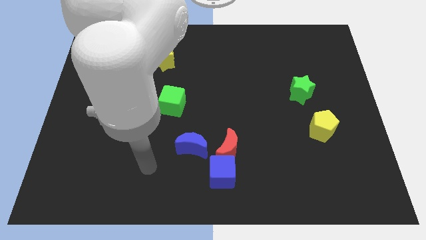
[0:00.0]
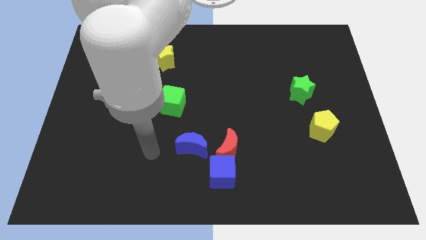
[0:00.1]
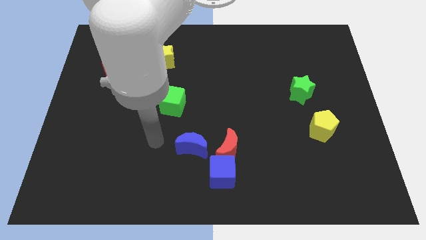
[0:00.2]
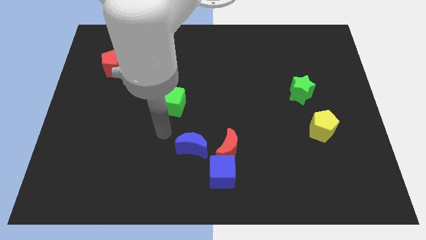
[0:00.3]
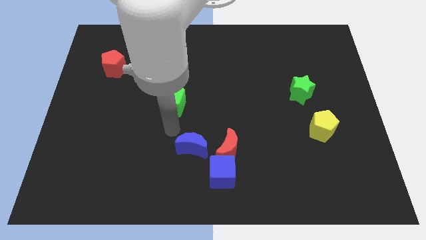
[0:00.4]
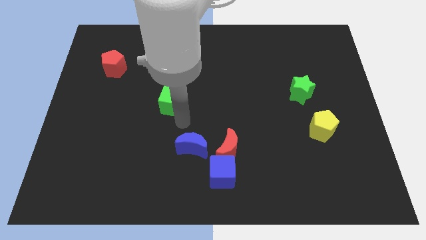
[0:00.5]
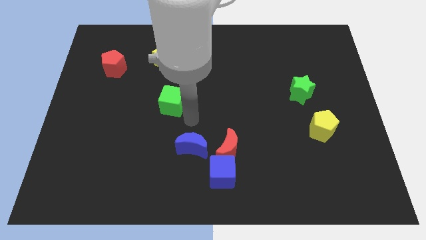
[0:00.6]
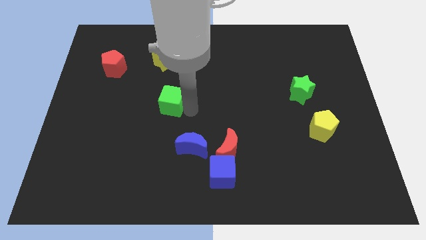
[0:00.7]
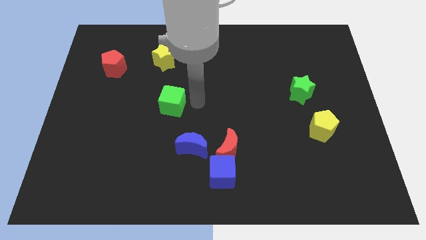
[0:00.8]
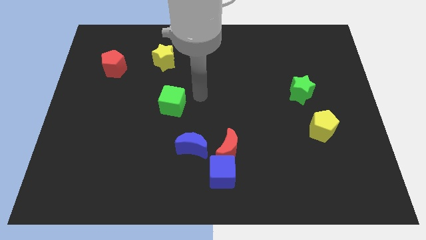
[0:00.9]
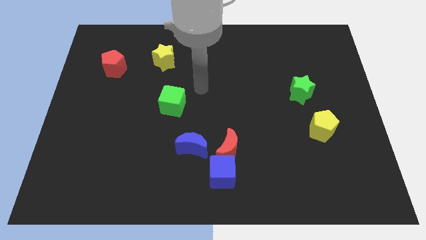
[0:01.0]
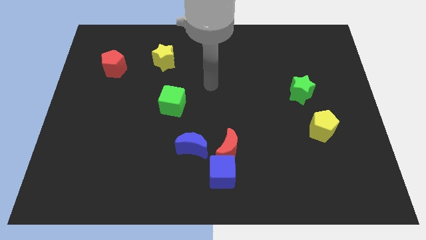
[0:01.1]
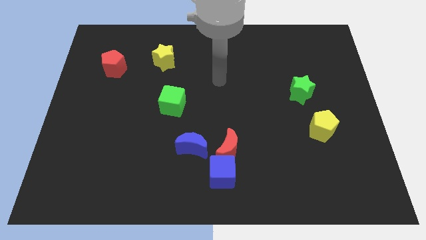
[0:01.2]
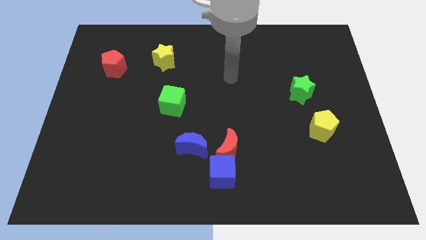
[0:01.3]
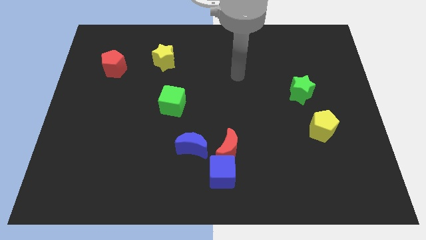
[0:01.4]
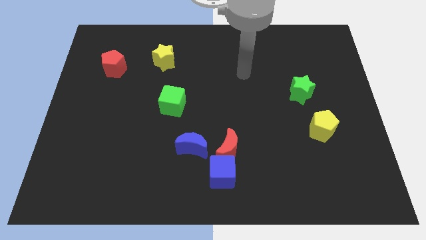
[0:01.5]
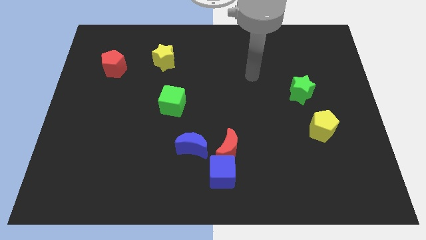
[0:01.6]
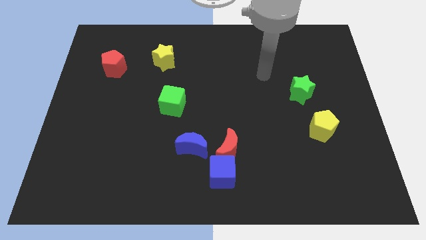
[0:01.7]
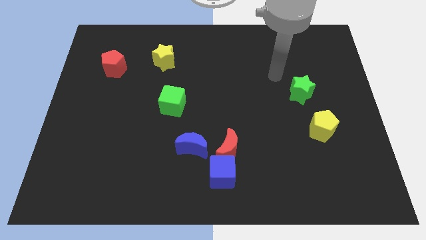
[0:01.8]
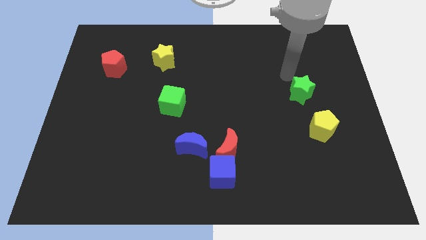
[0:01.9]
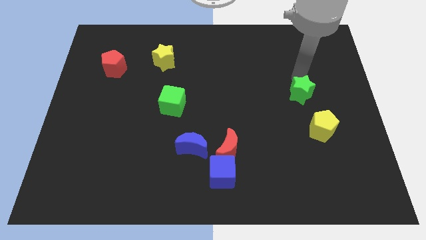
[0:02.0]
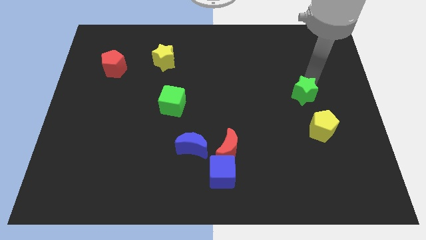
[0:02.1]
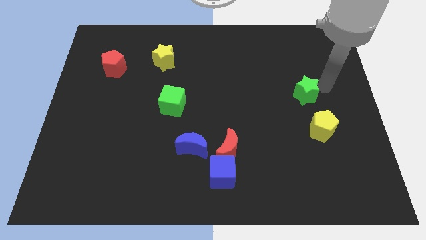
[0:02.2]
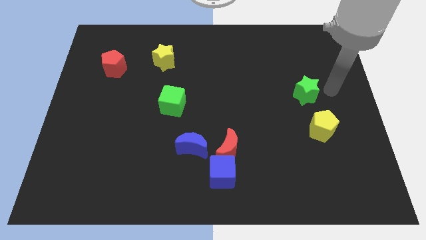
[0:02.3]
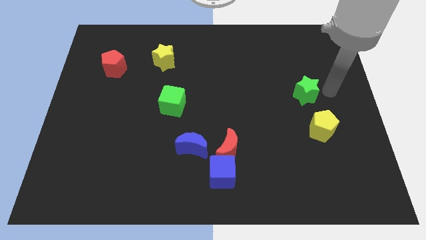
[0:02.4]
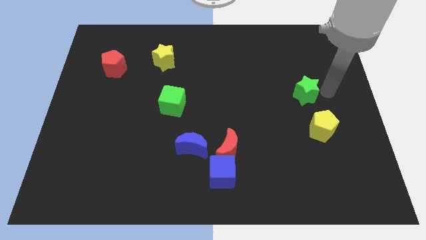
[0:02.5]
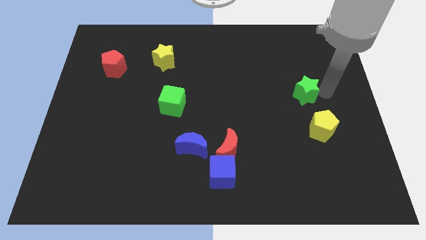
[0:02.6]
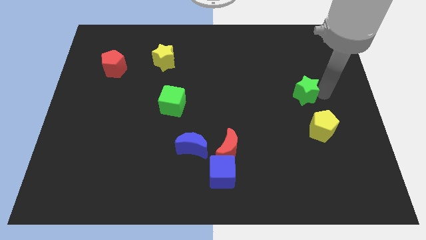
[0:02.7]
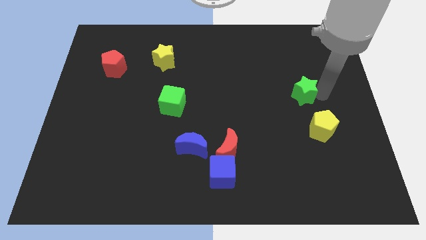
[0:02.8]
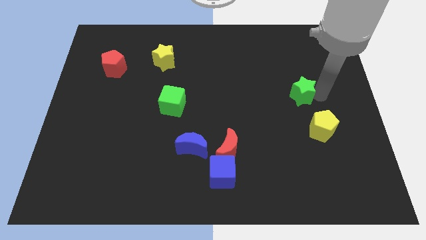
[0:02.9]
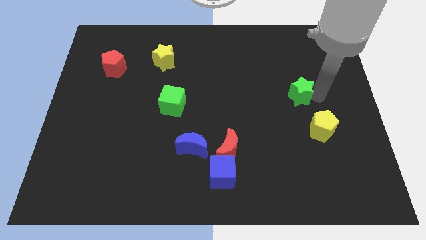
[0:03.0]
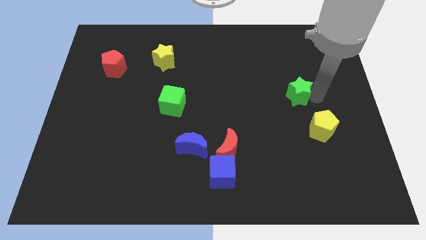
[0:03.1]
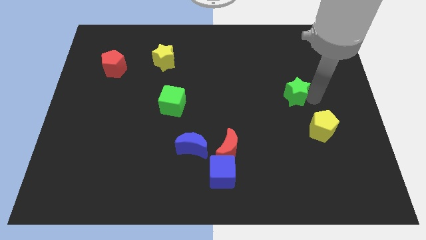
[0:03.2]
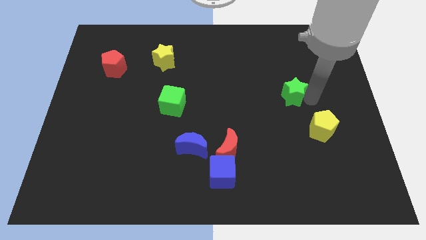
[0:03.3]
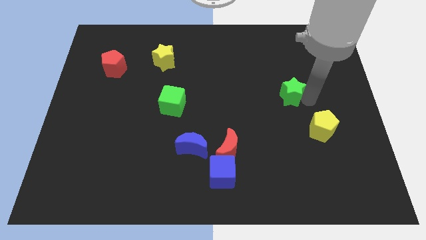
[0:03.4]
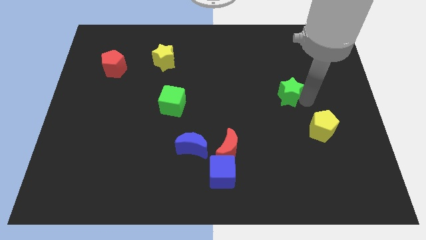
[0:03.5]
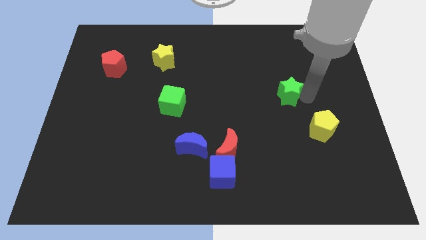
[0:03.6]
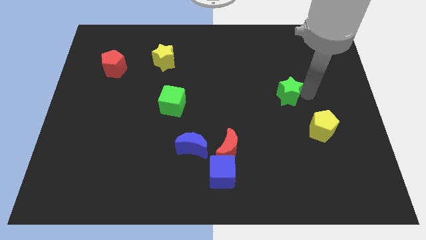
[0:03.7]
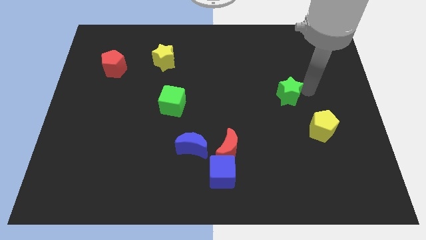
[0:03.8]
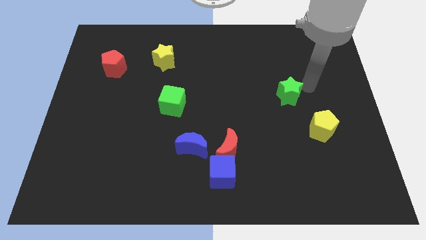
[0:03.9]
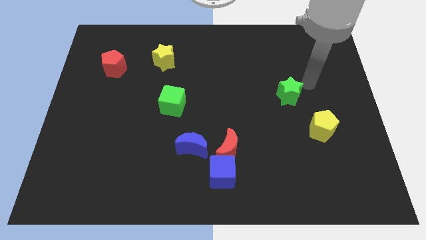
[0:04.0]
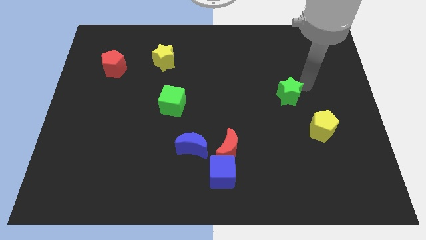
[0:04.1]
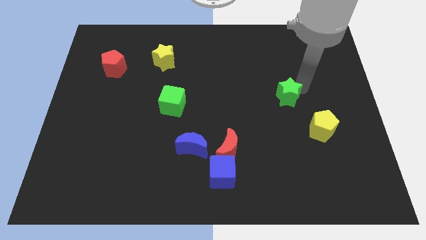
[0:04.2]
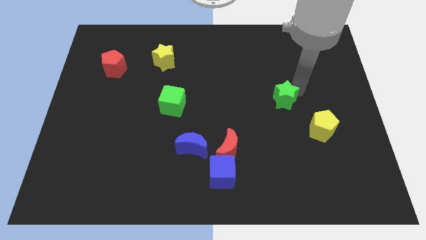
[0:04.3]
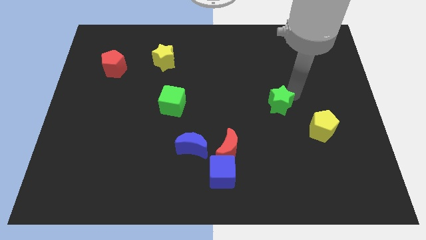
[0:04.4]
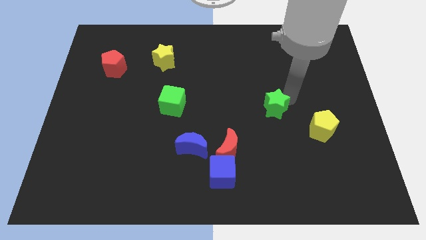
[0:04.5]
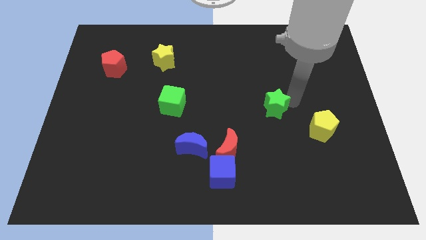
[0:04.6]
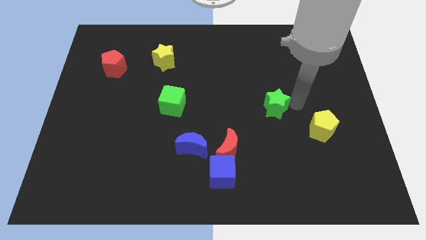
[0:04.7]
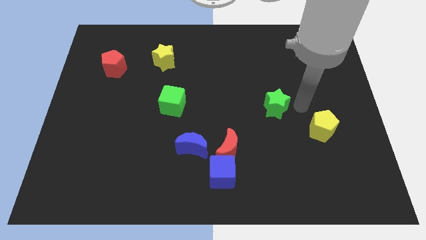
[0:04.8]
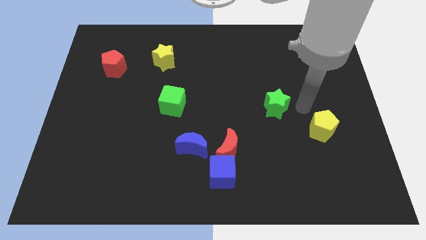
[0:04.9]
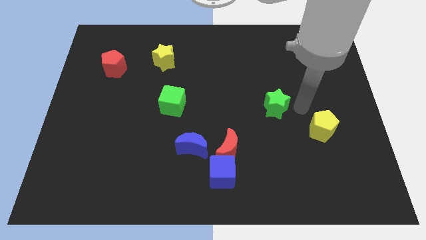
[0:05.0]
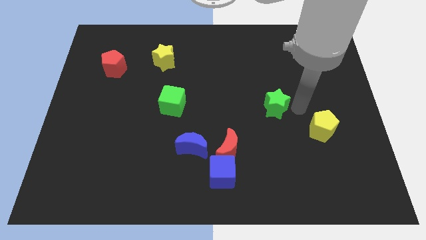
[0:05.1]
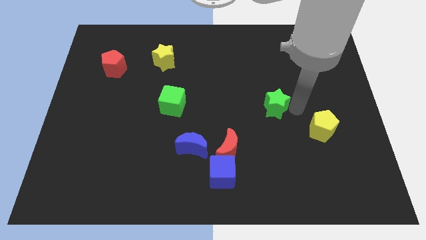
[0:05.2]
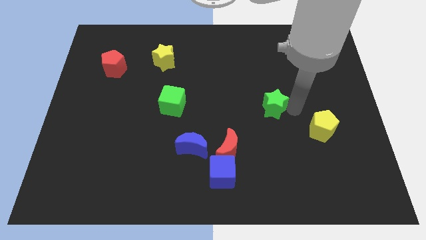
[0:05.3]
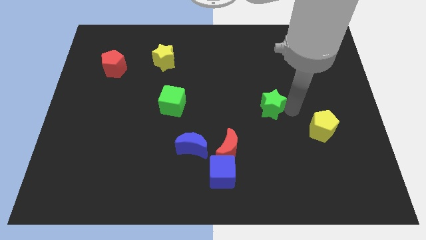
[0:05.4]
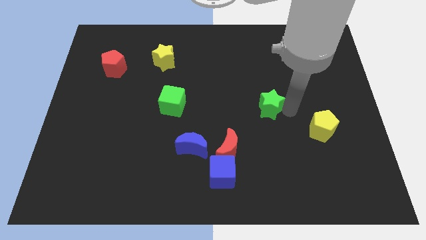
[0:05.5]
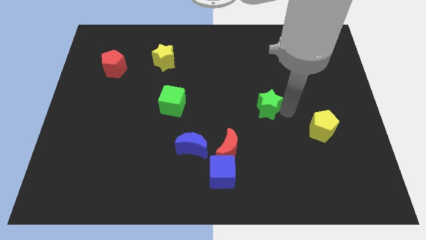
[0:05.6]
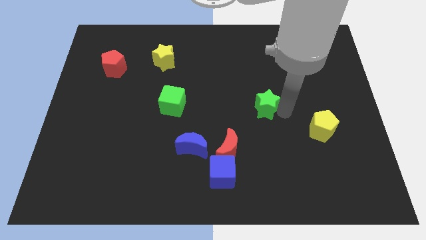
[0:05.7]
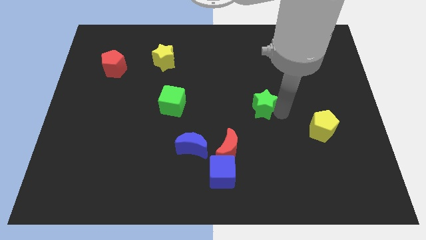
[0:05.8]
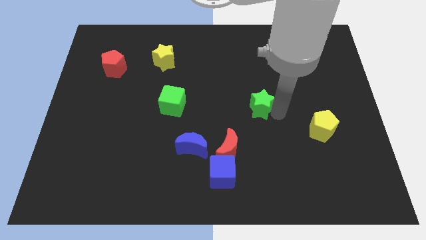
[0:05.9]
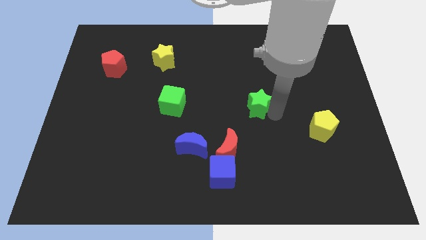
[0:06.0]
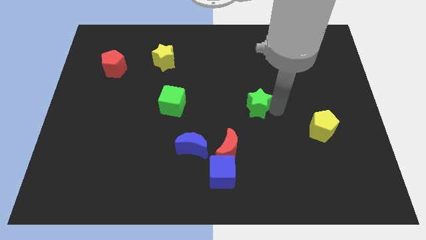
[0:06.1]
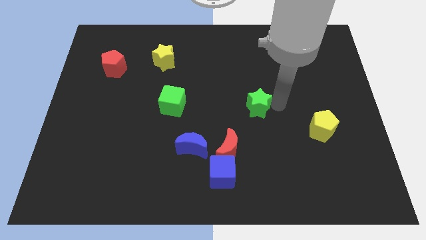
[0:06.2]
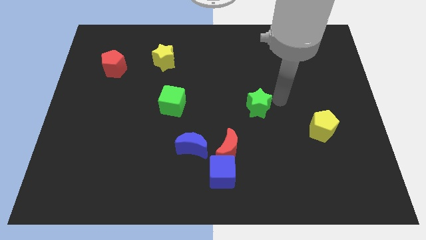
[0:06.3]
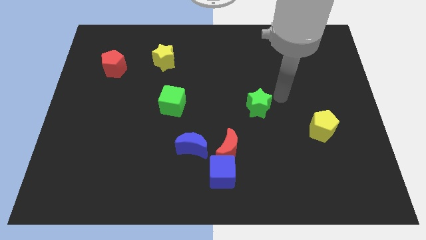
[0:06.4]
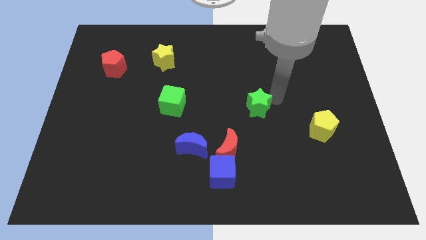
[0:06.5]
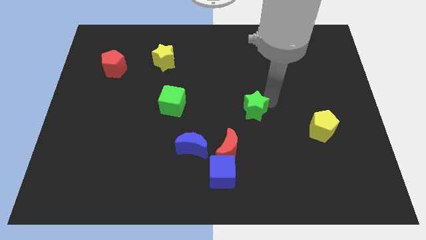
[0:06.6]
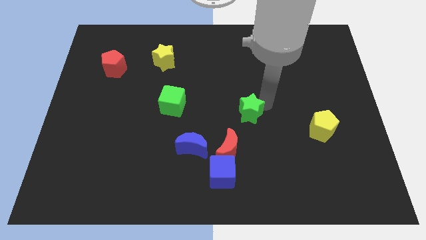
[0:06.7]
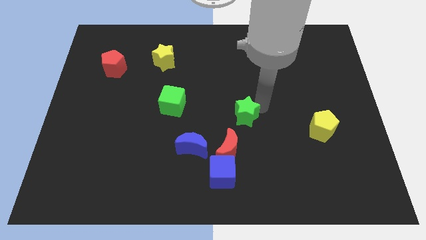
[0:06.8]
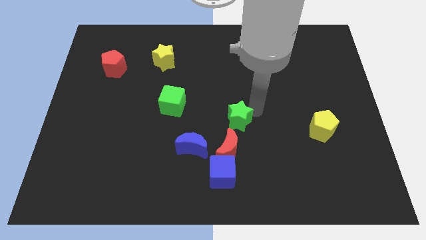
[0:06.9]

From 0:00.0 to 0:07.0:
put the green star to the top right of the blue moon
